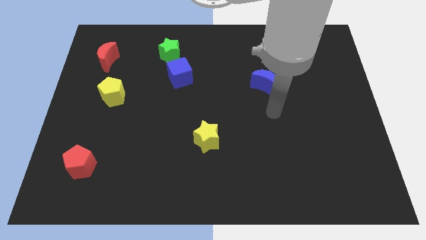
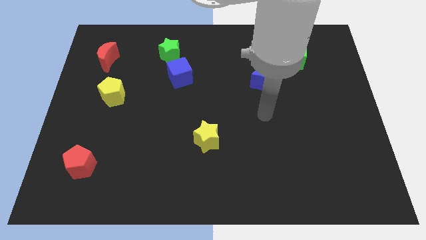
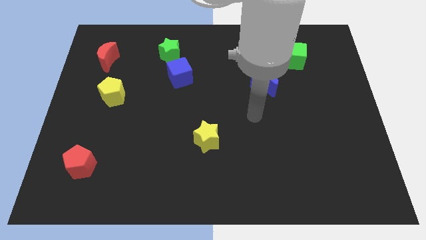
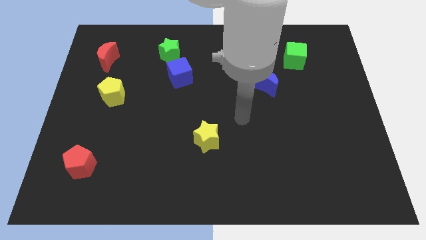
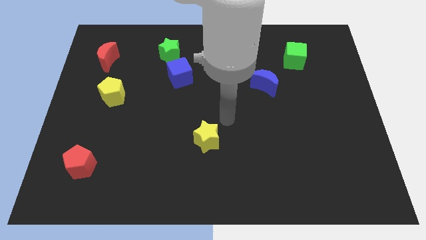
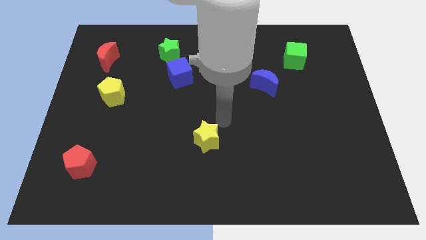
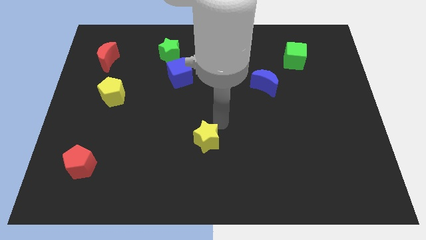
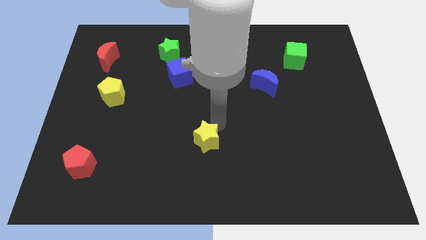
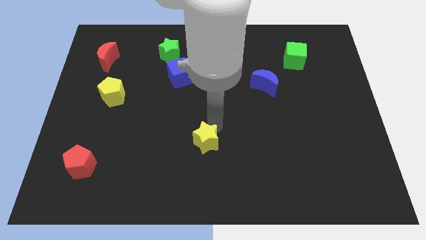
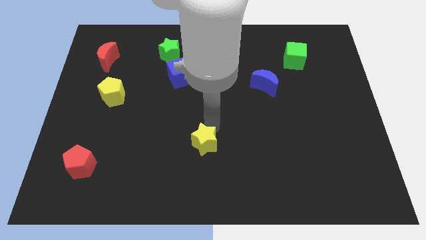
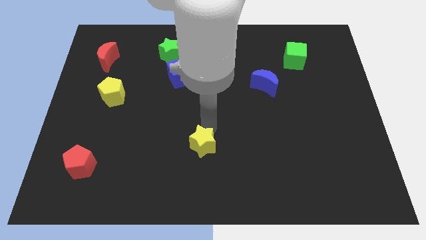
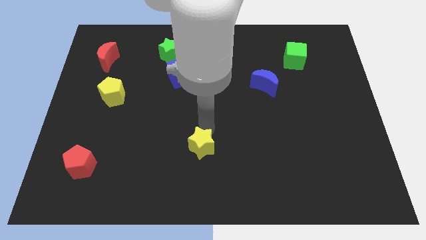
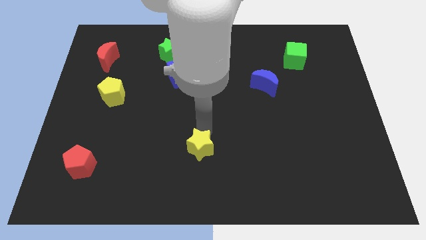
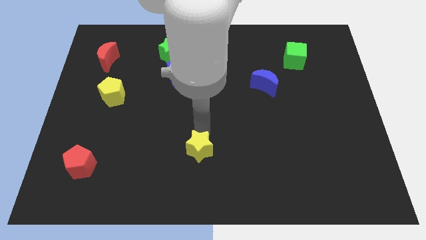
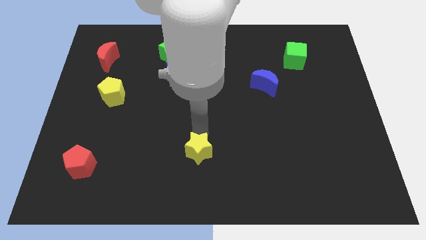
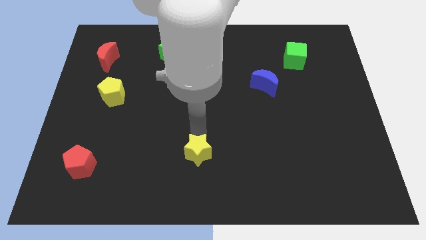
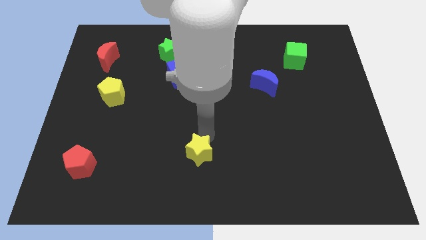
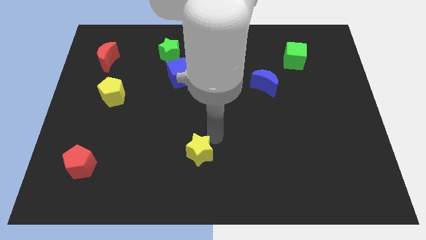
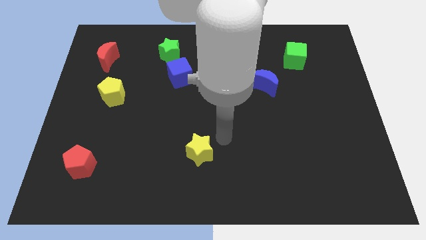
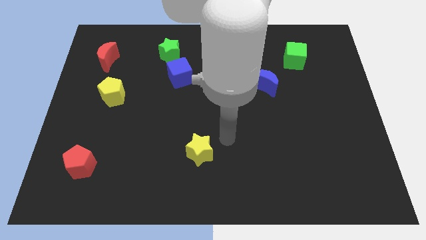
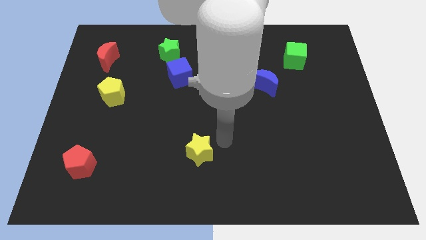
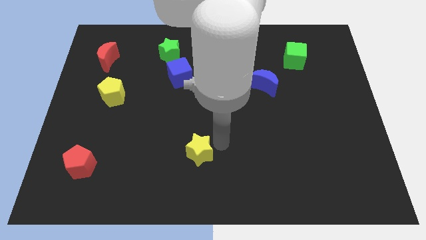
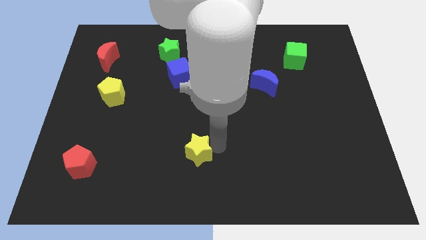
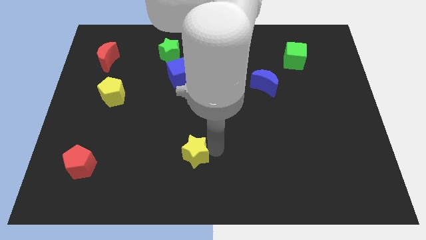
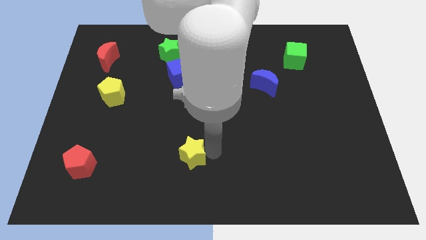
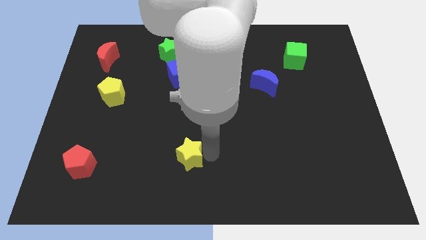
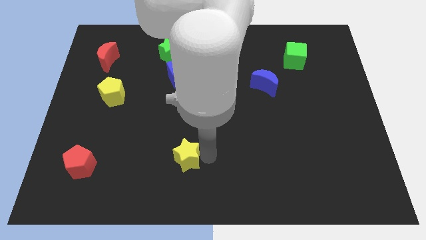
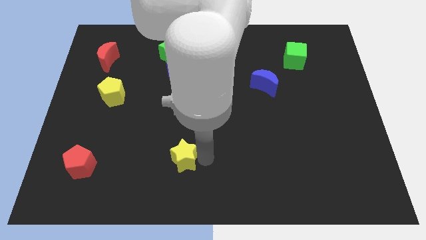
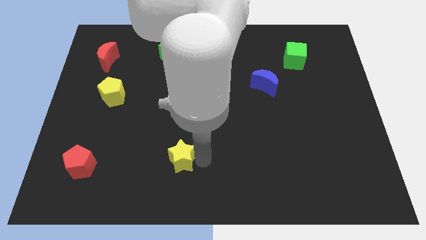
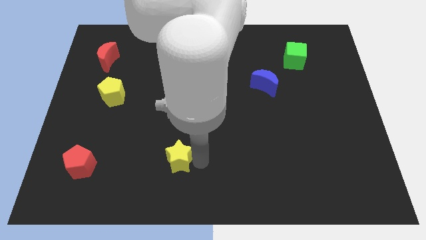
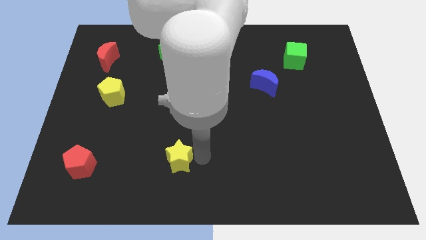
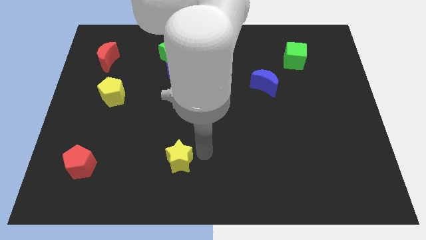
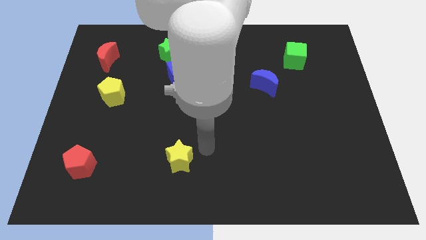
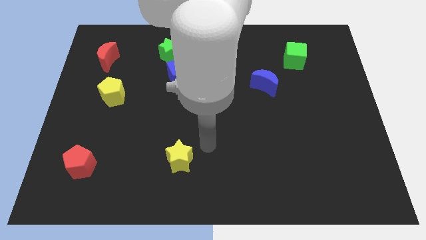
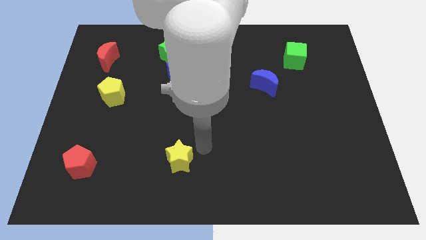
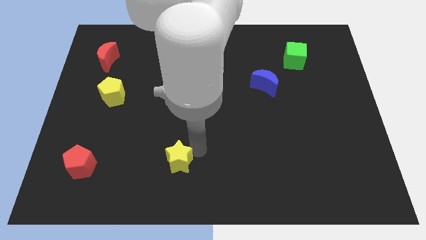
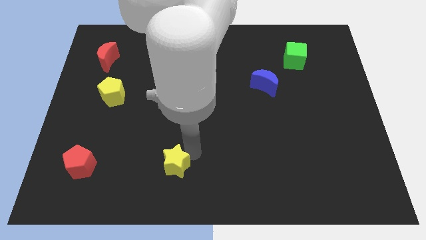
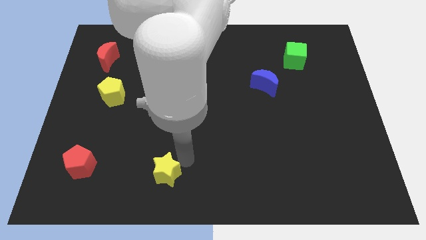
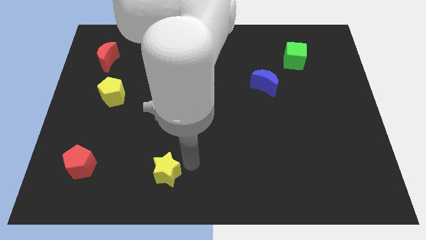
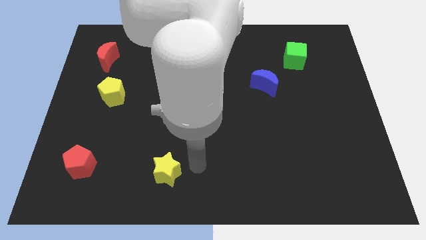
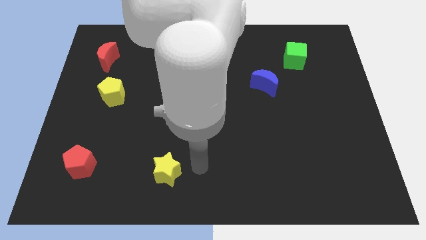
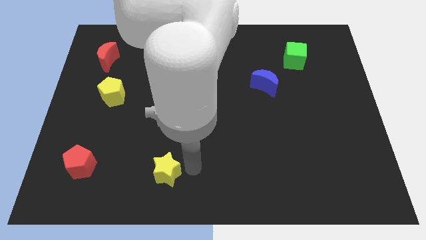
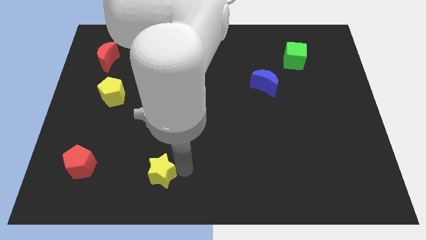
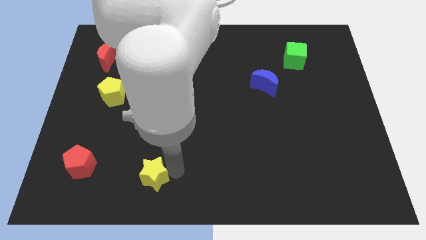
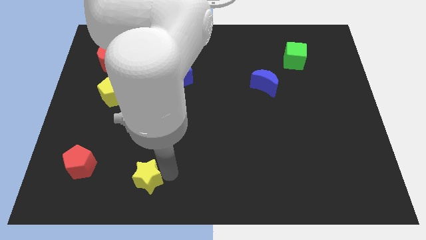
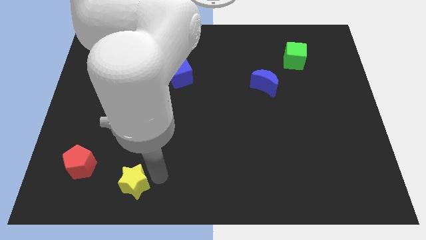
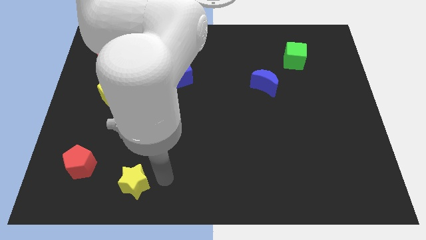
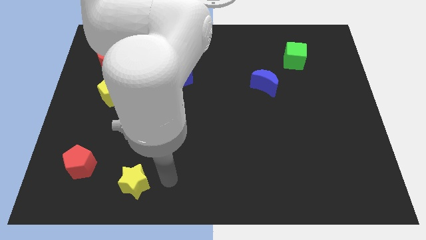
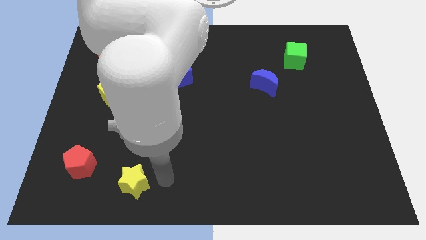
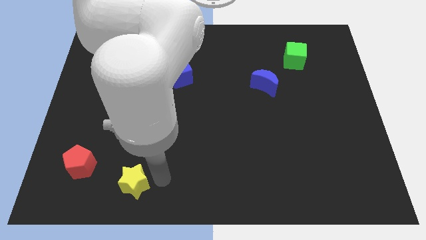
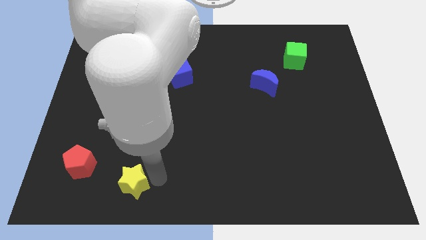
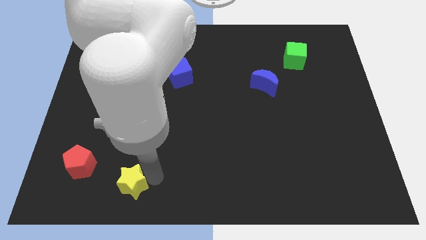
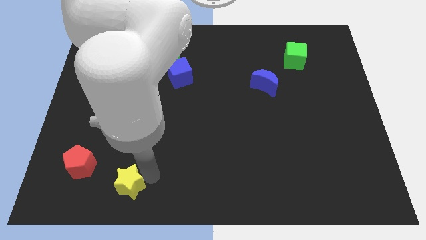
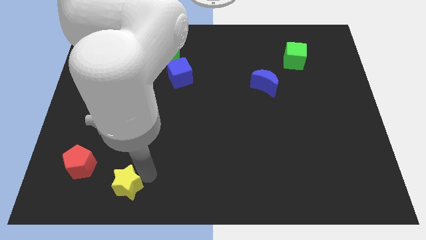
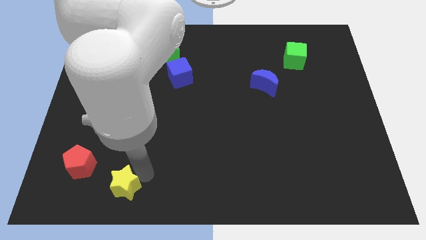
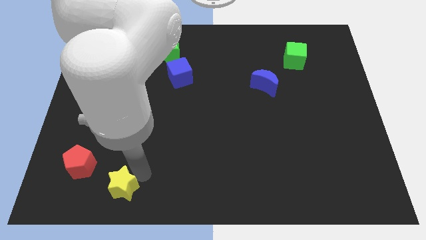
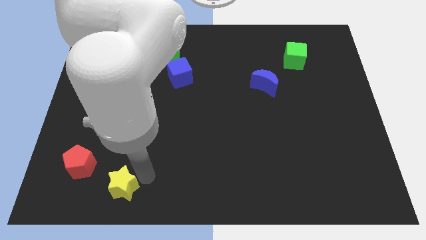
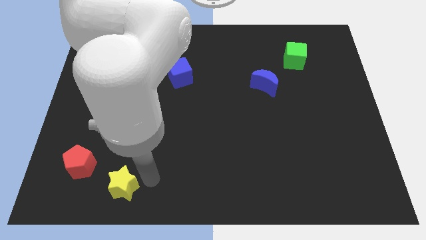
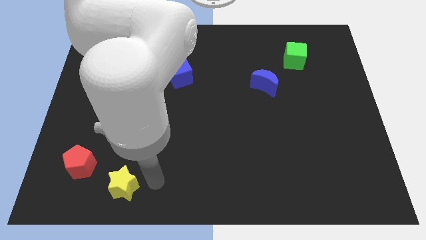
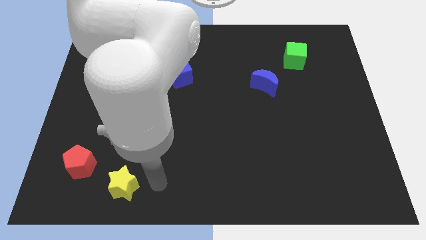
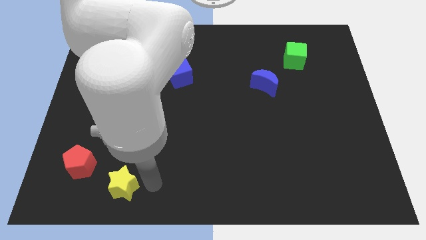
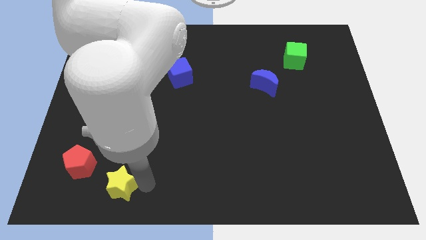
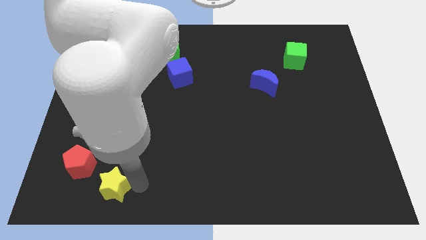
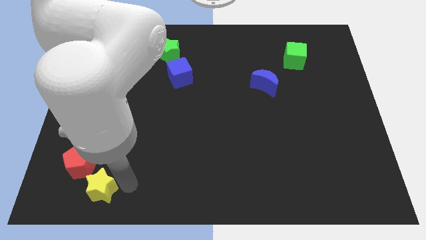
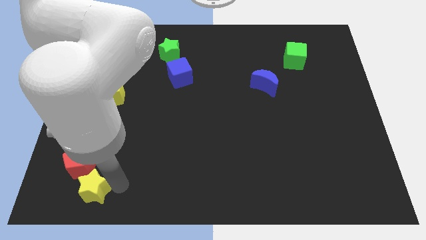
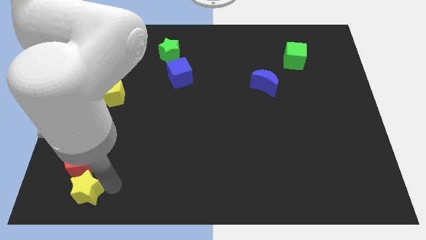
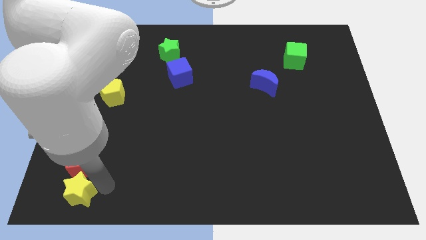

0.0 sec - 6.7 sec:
put the yellow star to the bottom left of the board

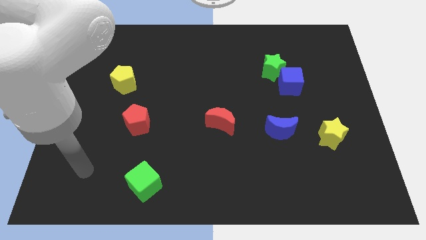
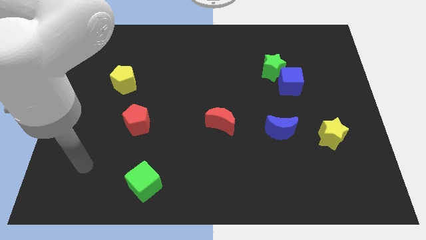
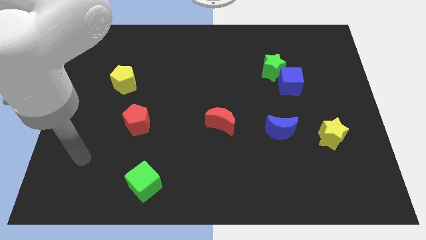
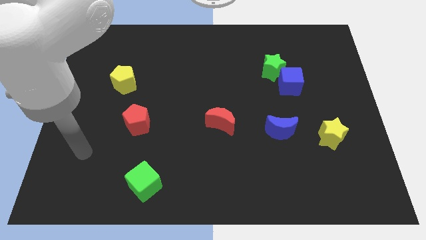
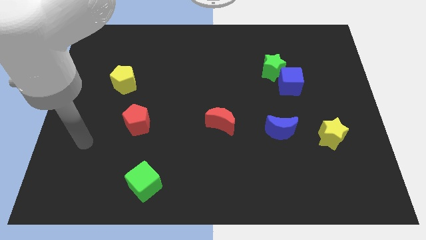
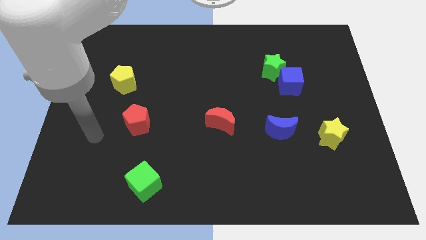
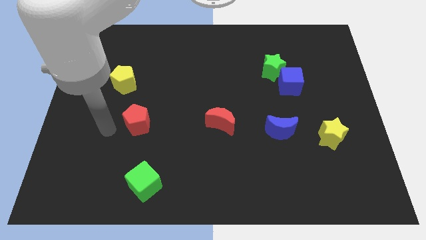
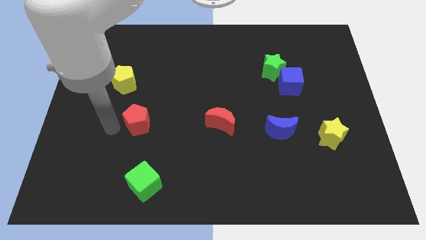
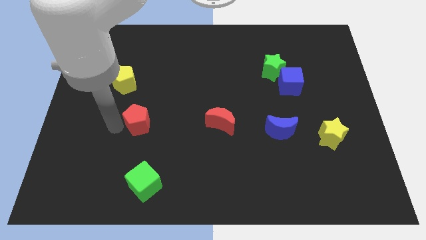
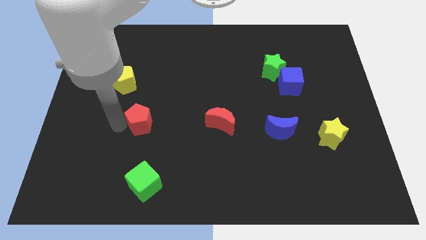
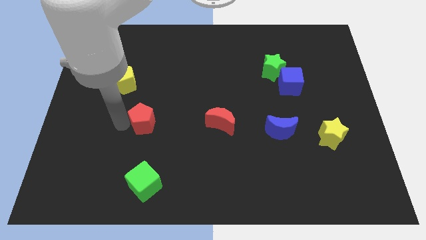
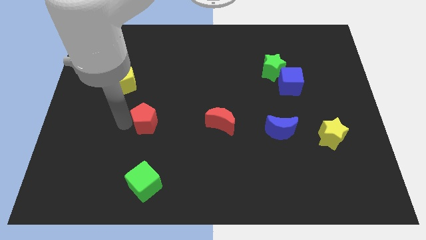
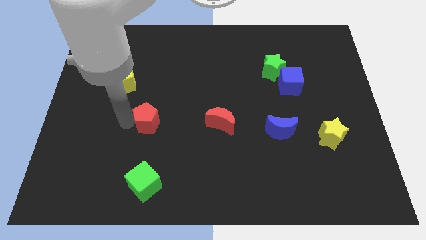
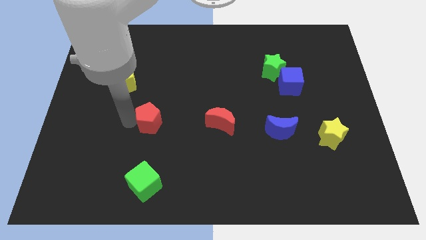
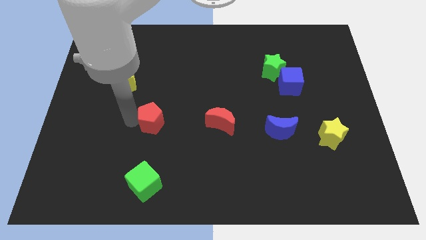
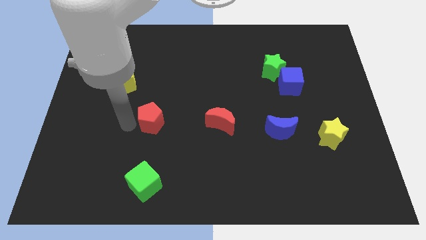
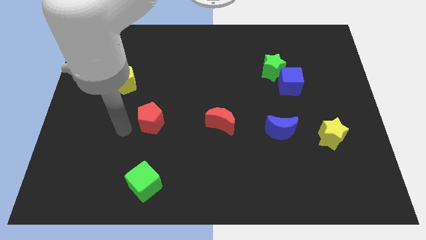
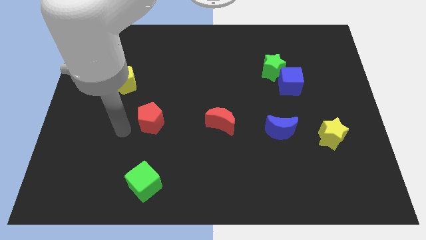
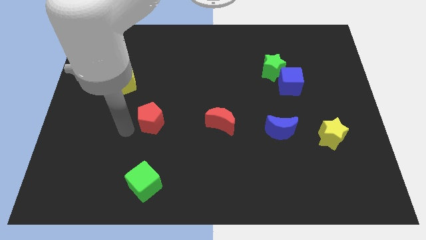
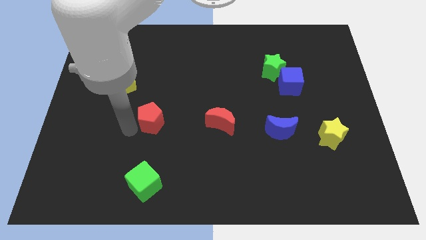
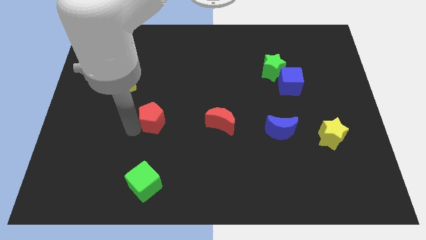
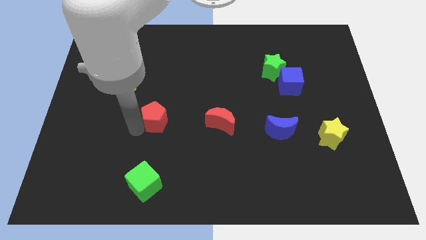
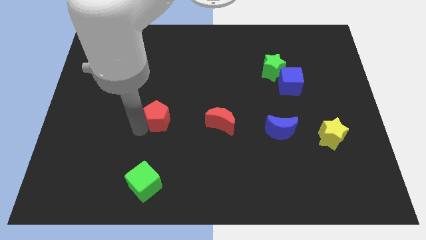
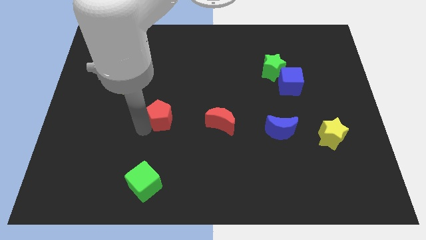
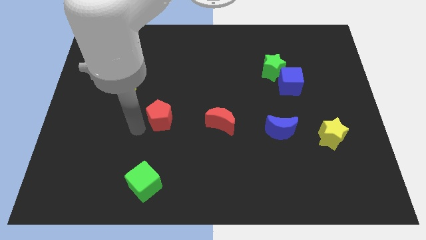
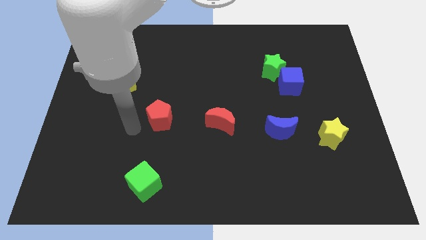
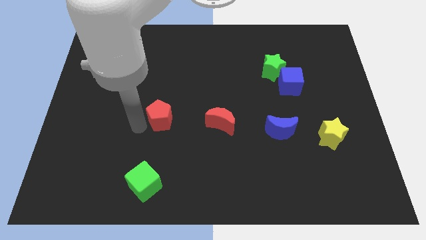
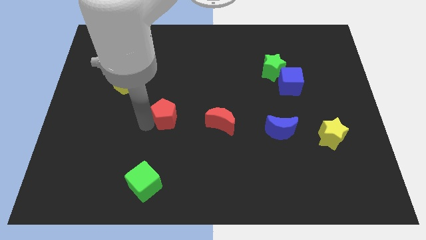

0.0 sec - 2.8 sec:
move the red pentagon to the center of the board
